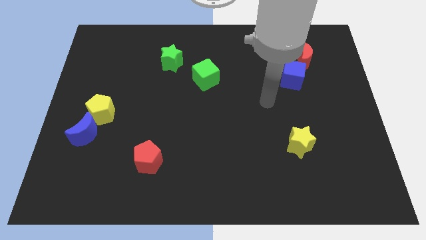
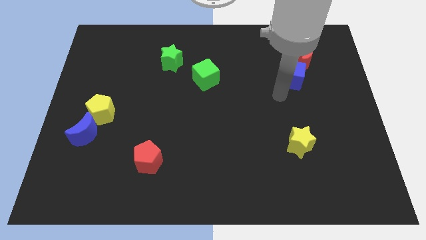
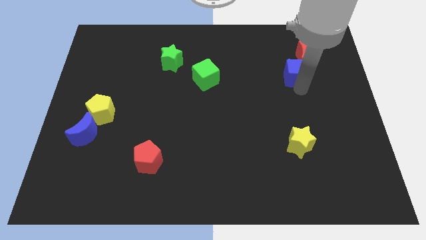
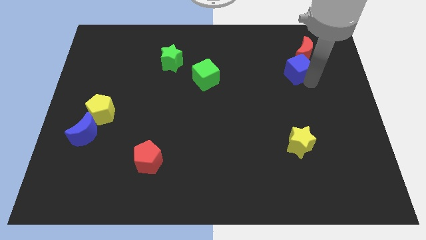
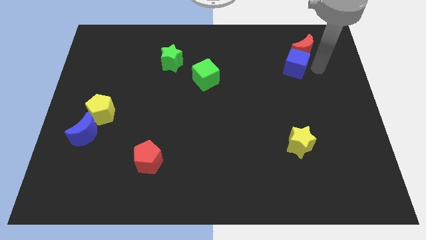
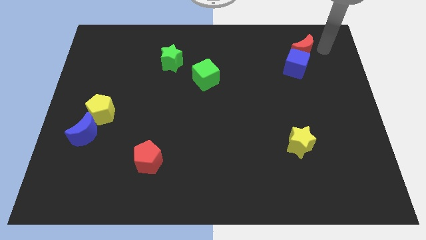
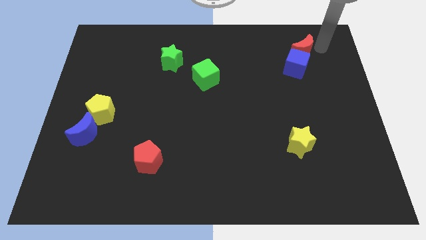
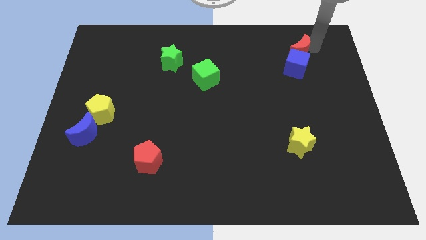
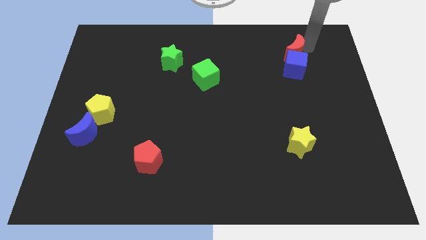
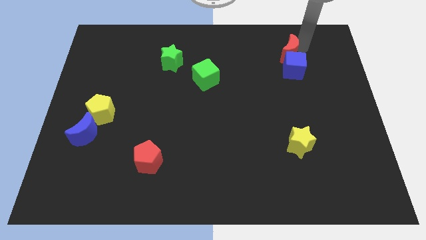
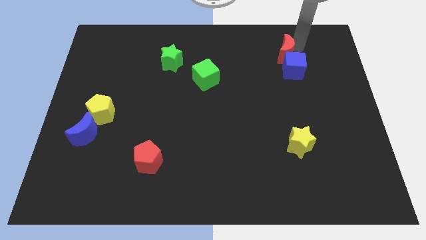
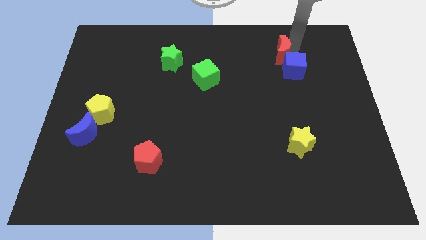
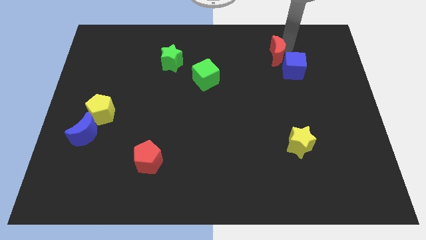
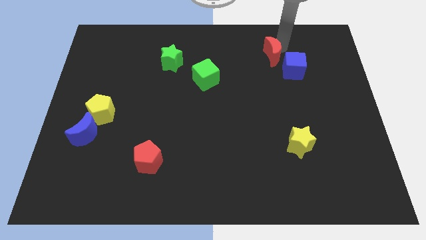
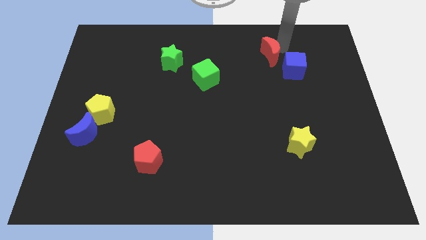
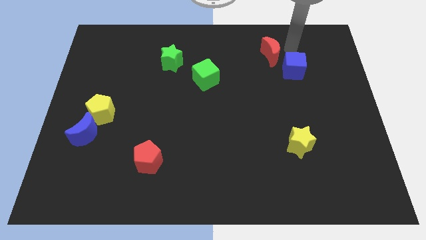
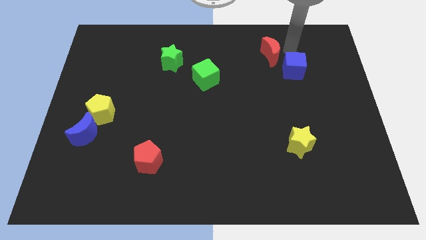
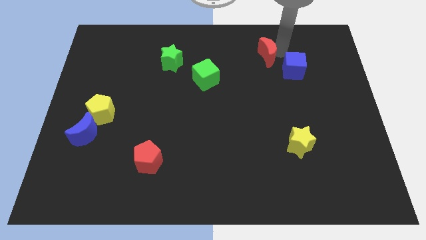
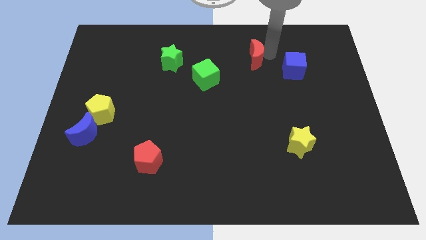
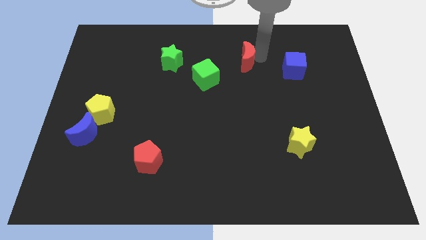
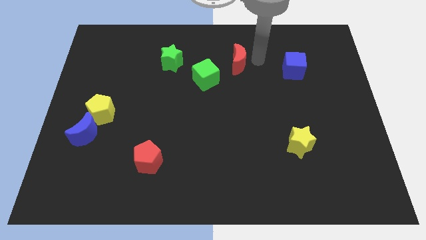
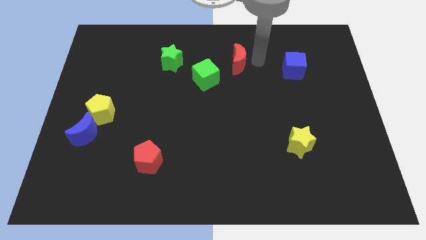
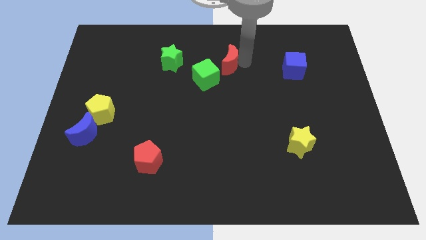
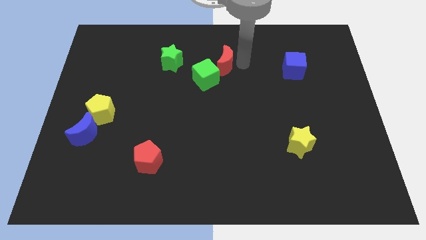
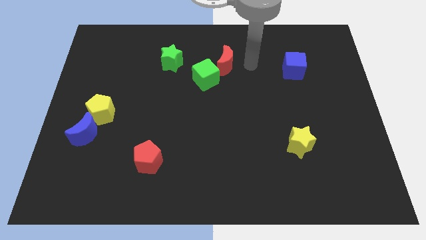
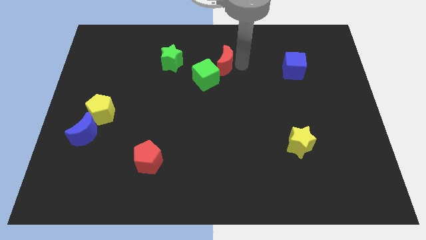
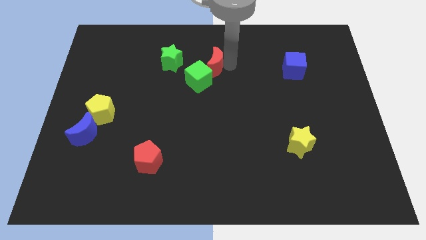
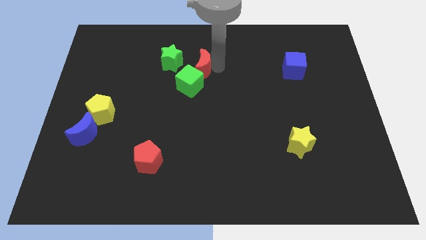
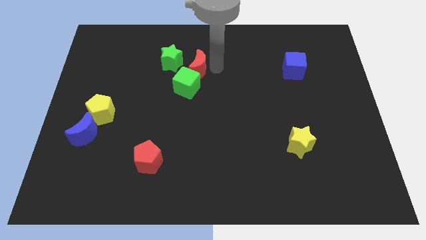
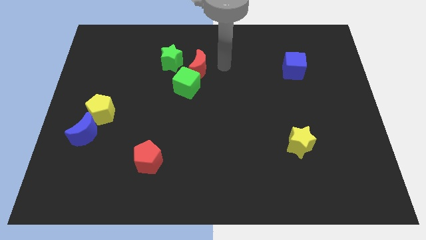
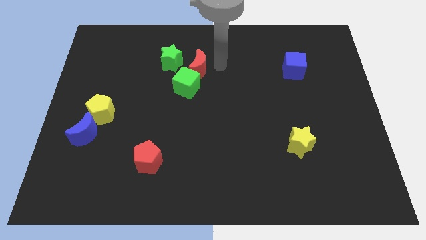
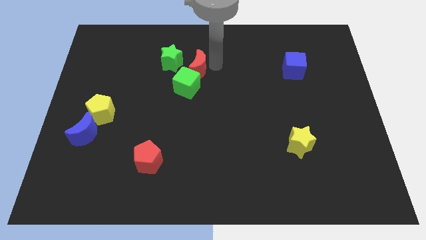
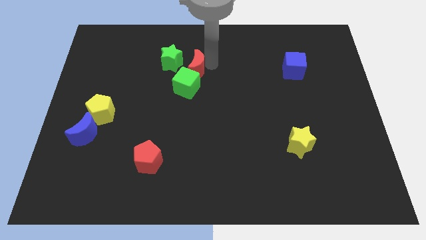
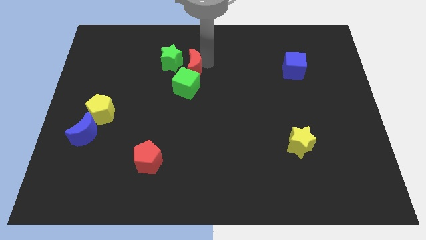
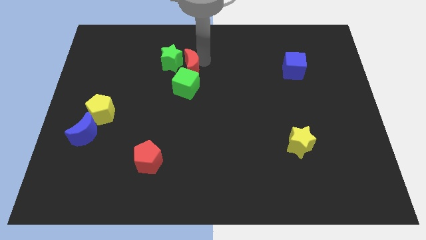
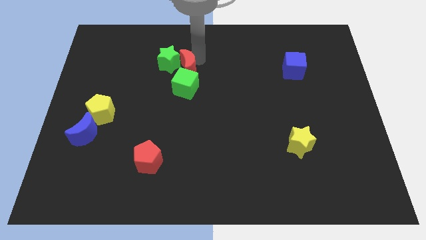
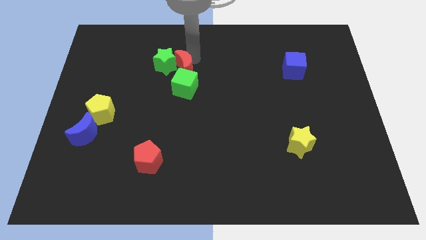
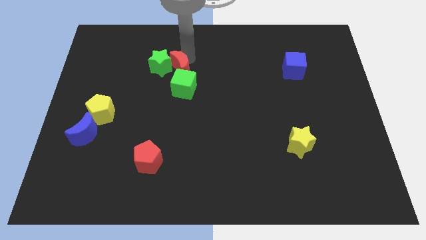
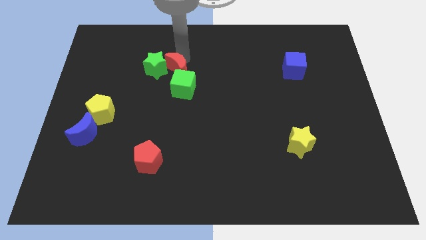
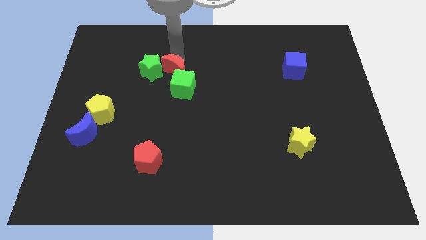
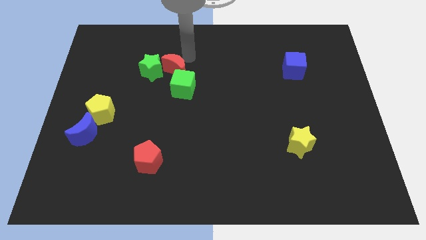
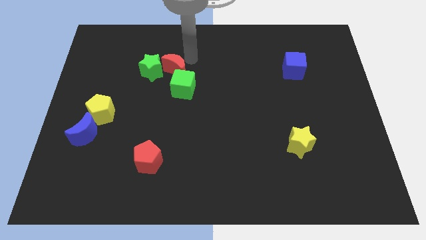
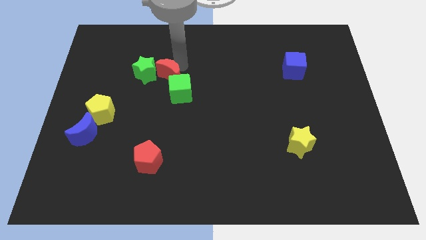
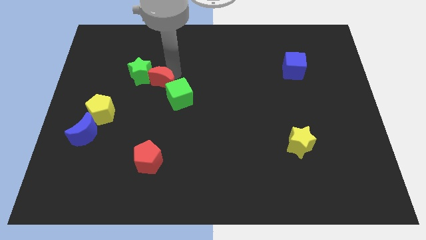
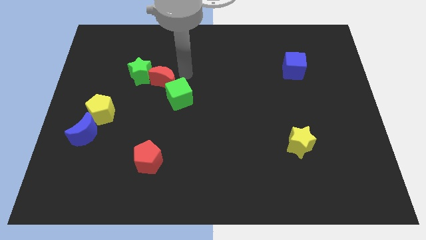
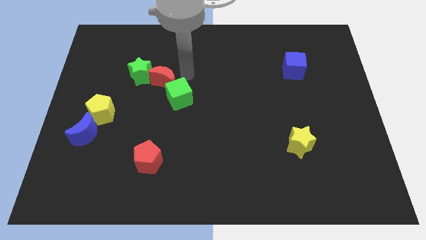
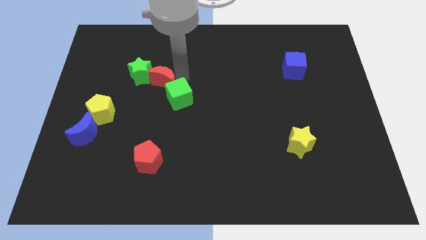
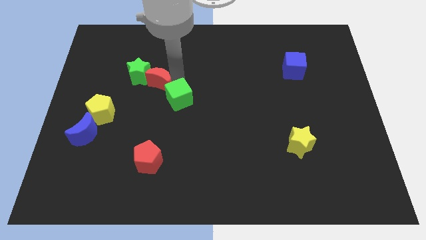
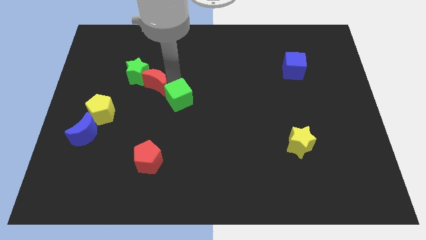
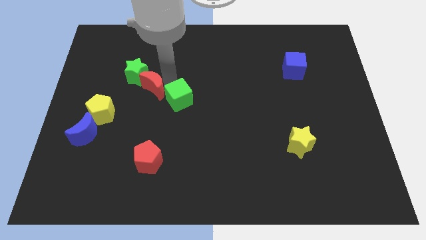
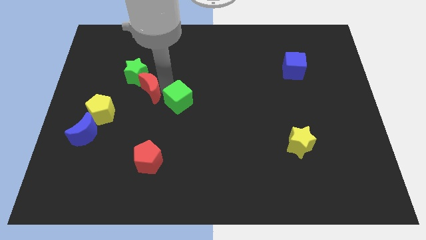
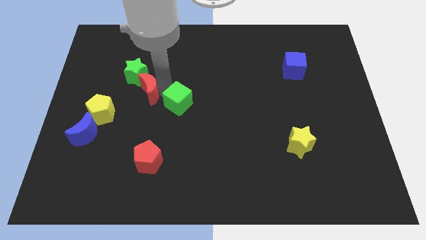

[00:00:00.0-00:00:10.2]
move the red moon to the top right side of the yellow pentagon

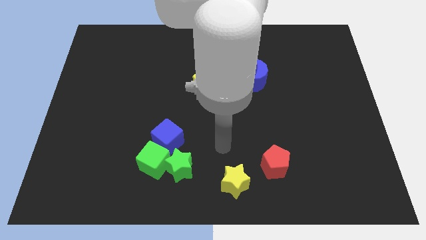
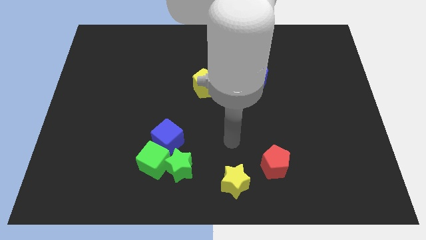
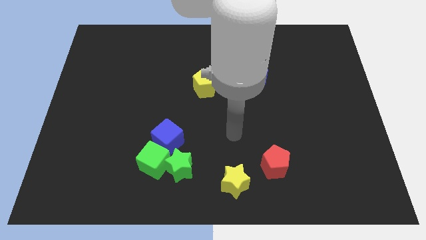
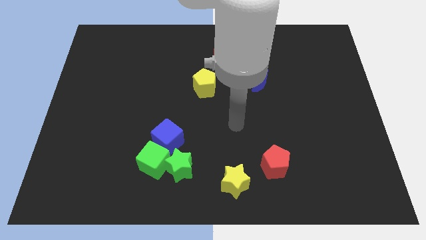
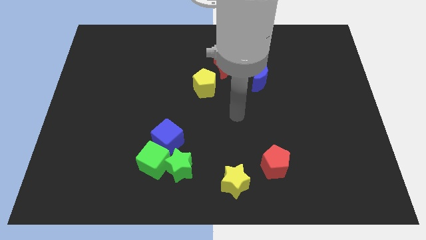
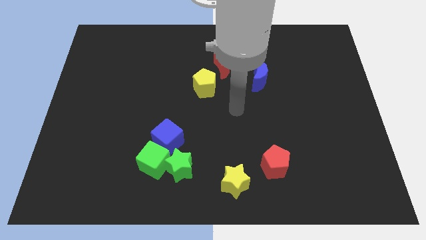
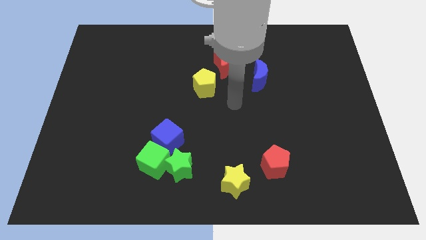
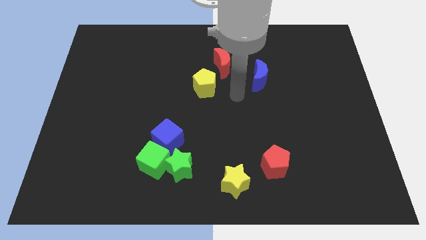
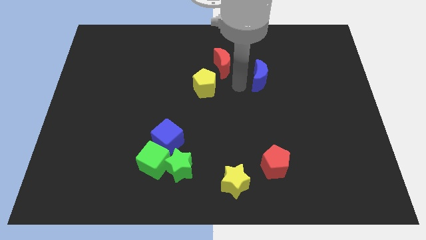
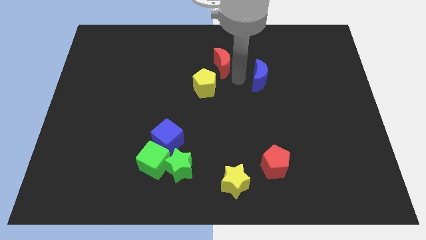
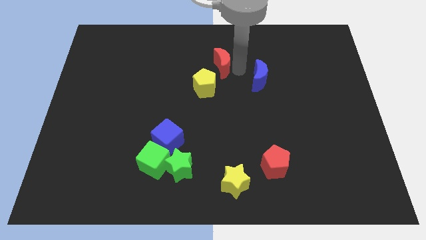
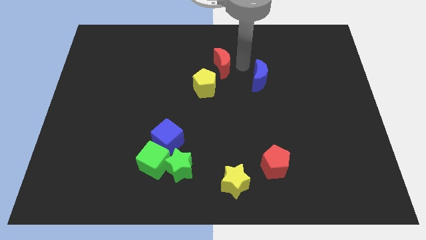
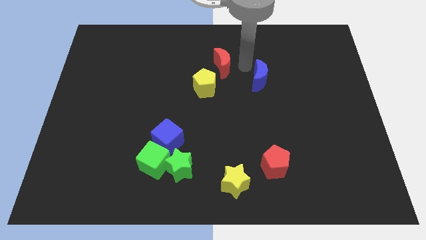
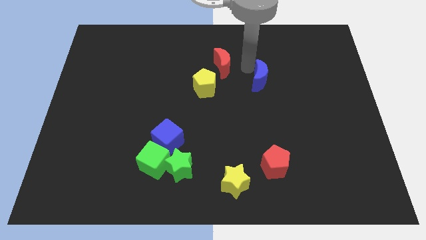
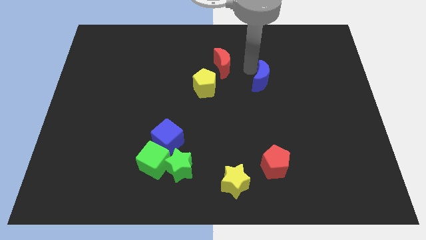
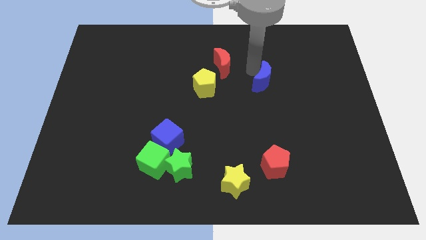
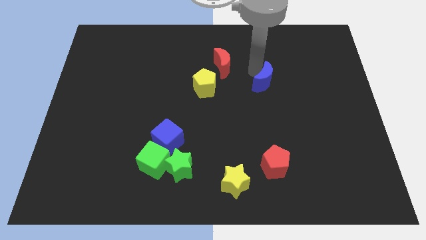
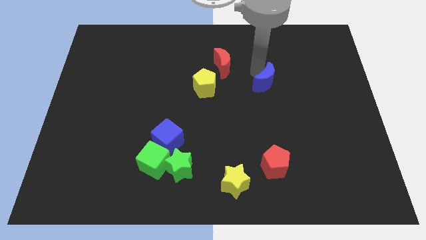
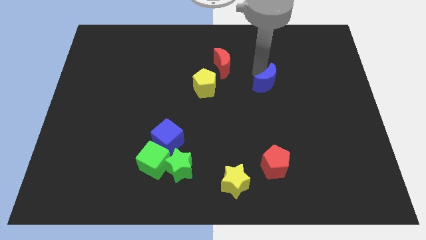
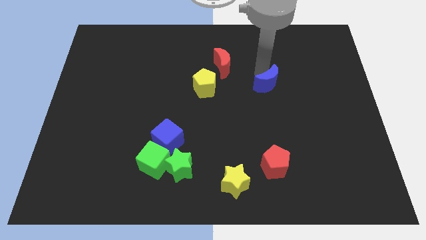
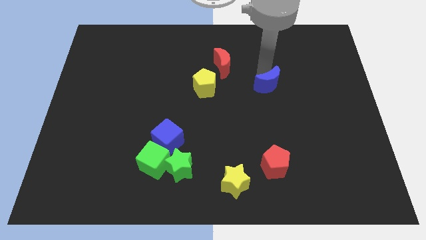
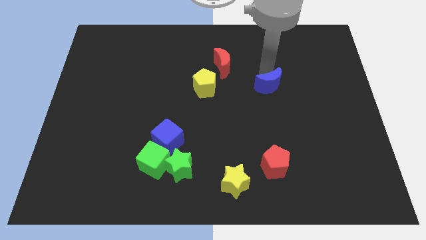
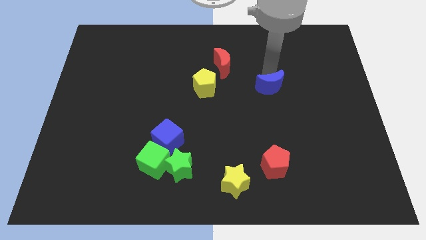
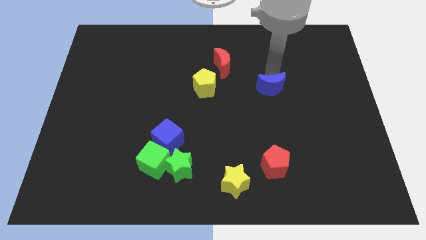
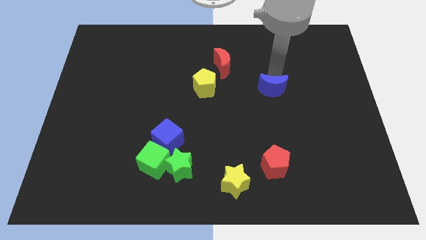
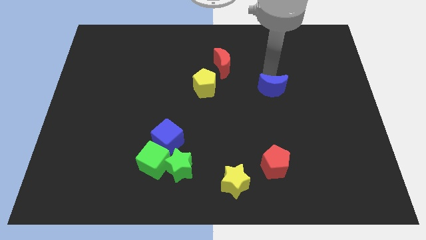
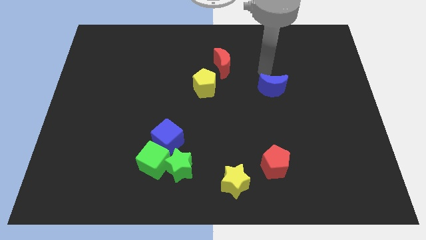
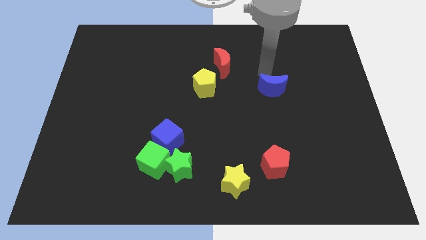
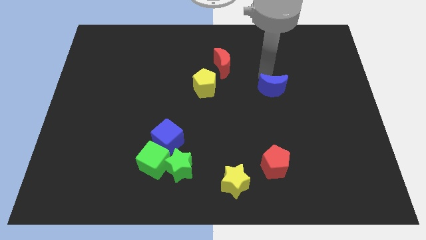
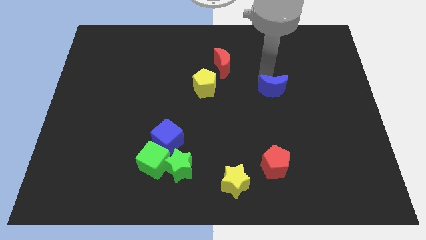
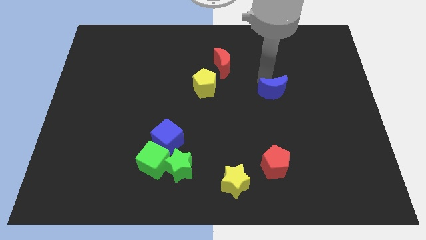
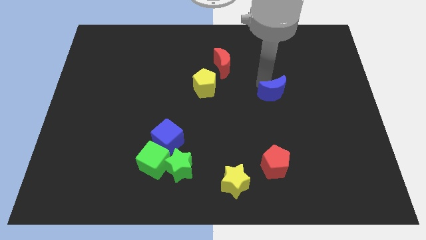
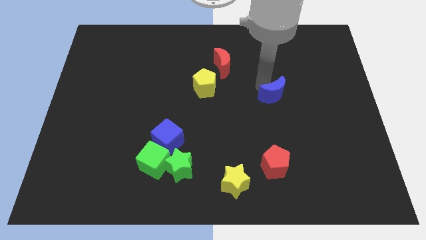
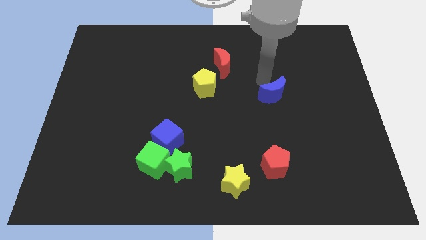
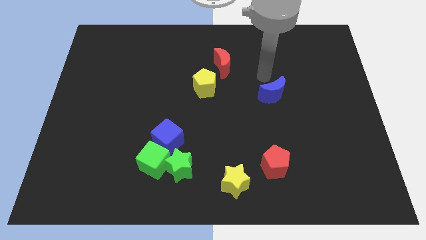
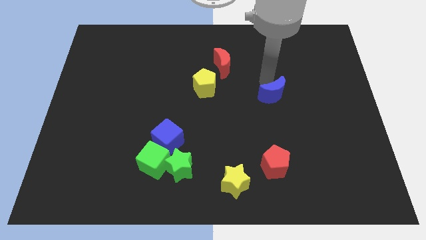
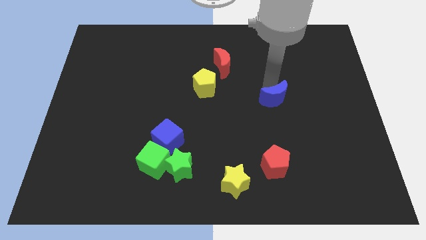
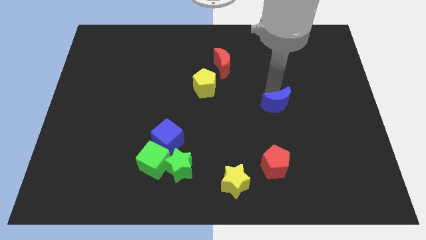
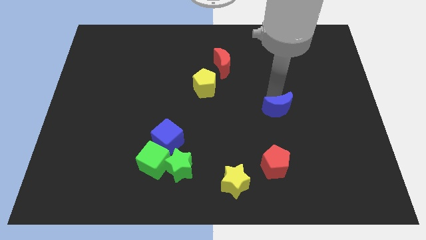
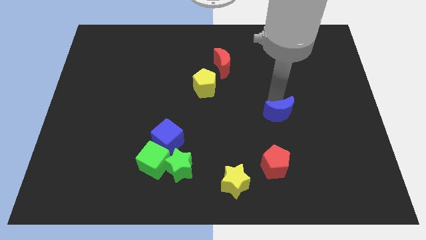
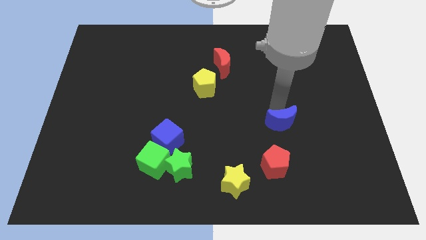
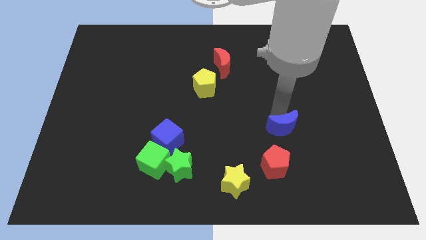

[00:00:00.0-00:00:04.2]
slide the blue moon diagonally up and to the right of the red pentagon
